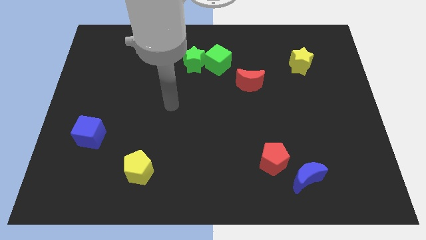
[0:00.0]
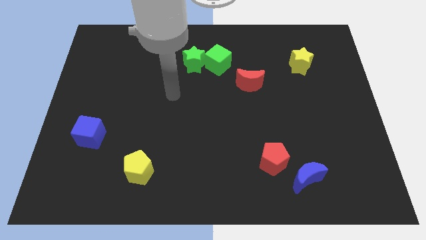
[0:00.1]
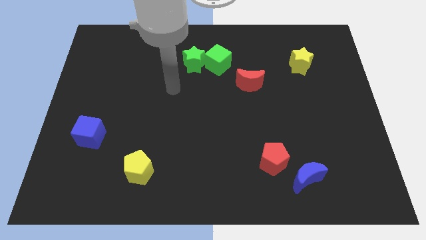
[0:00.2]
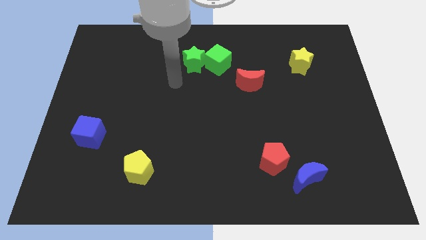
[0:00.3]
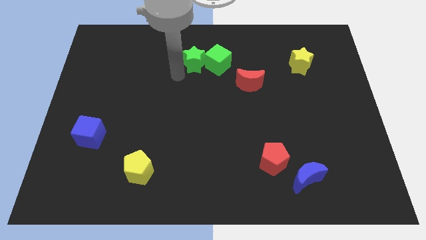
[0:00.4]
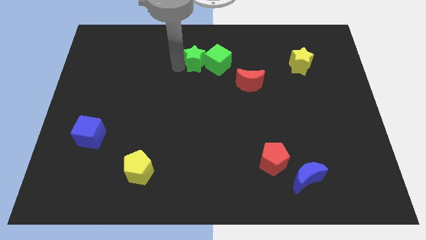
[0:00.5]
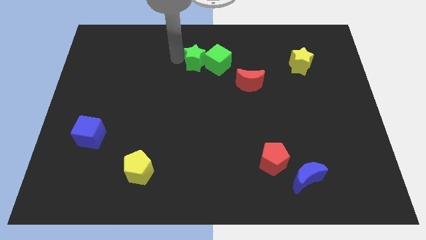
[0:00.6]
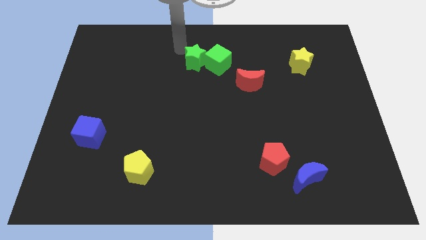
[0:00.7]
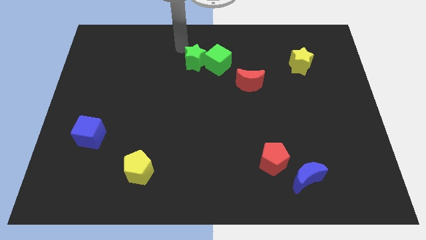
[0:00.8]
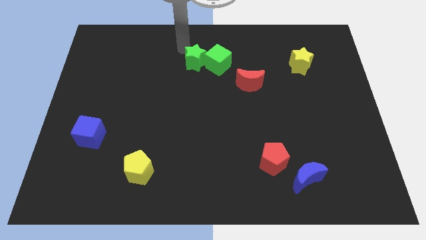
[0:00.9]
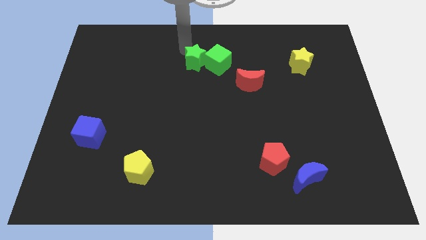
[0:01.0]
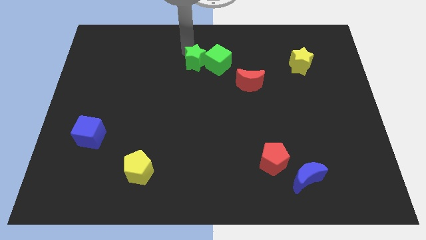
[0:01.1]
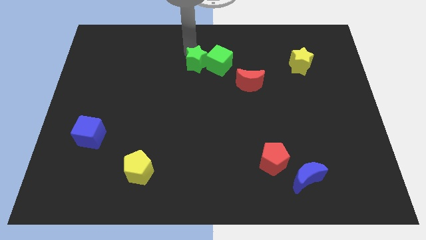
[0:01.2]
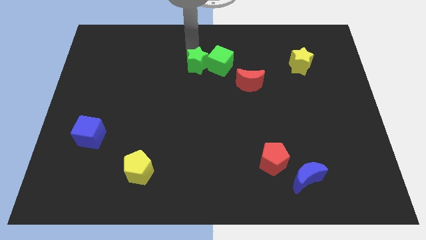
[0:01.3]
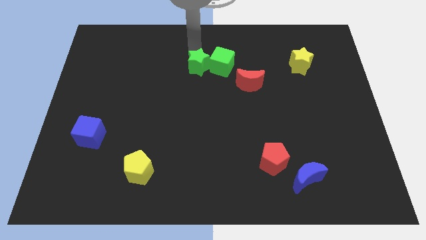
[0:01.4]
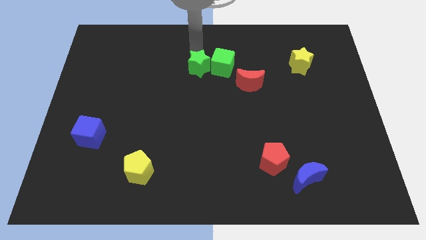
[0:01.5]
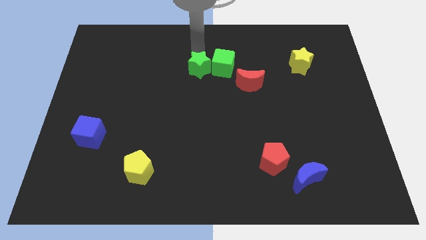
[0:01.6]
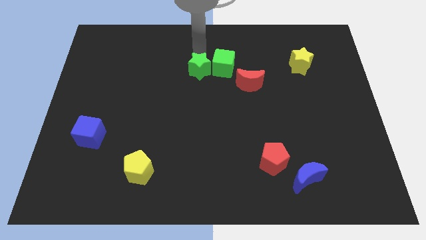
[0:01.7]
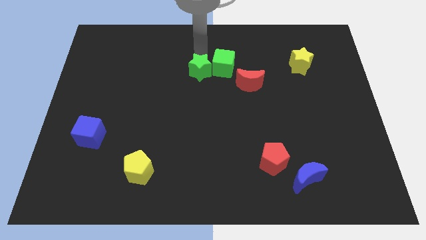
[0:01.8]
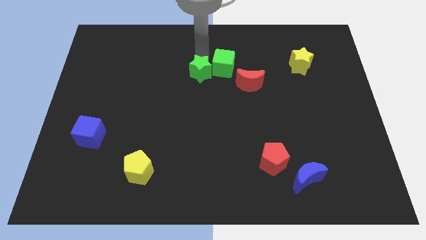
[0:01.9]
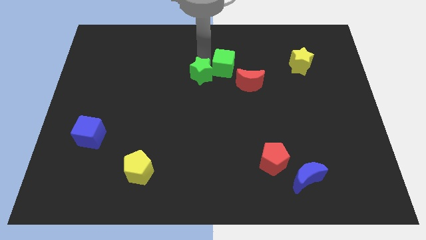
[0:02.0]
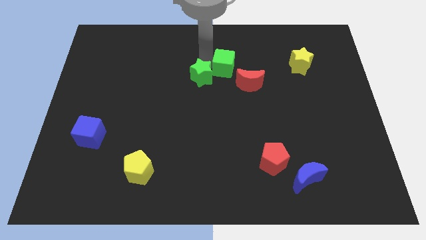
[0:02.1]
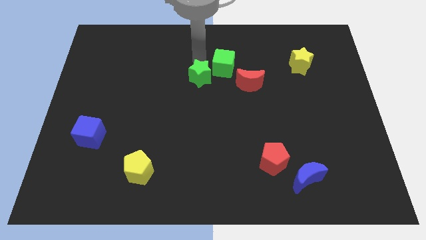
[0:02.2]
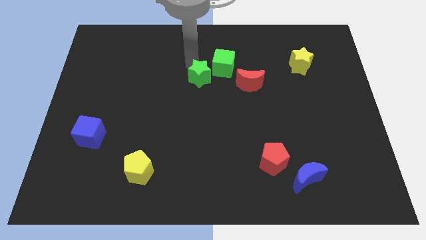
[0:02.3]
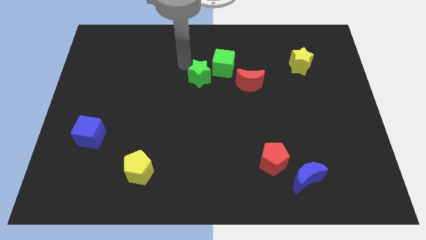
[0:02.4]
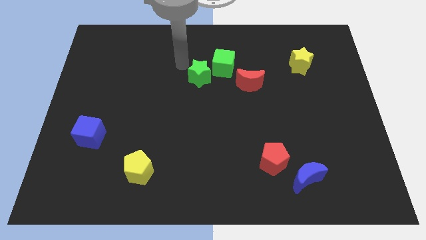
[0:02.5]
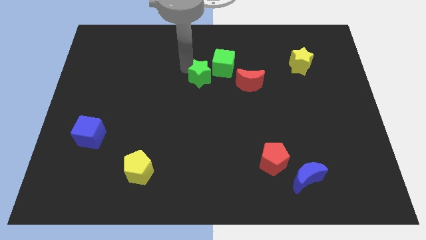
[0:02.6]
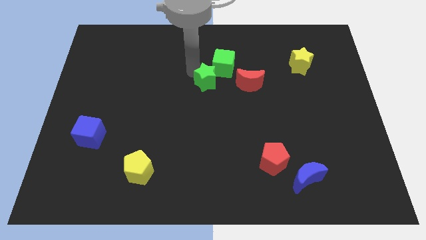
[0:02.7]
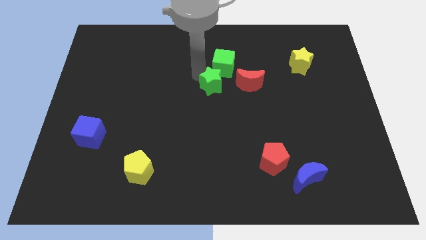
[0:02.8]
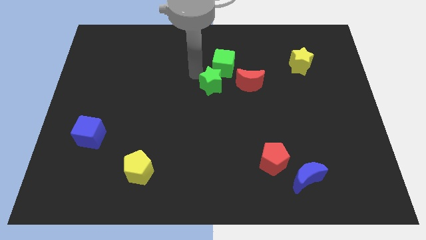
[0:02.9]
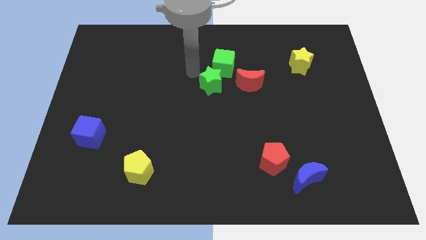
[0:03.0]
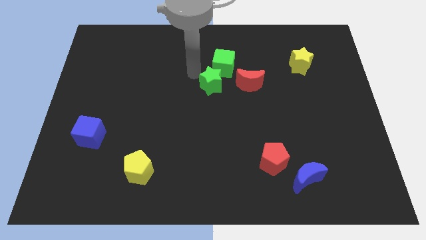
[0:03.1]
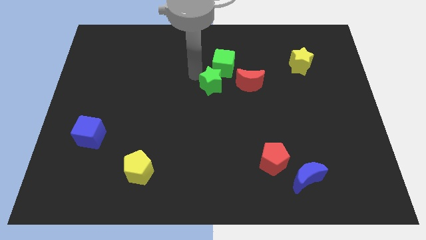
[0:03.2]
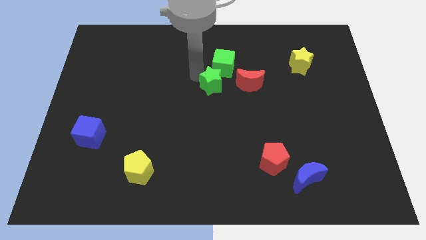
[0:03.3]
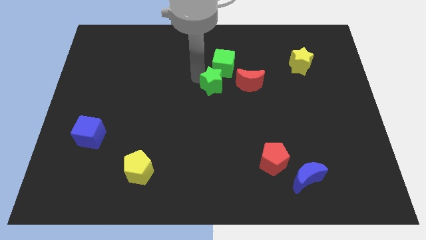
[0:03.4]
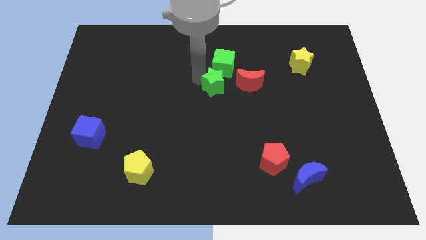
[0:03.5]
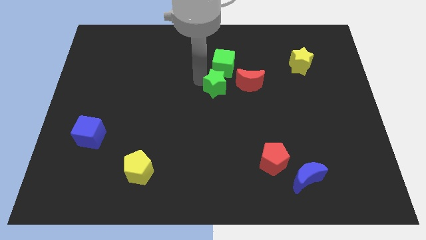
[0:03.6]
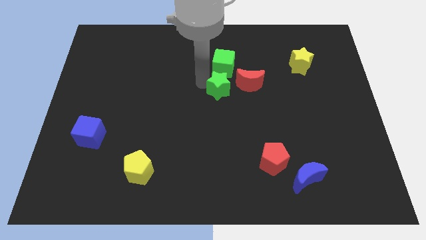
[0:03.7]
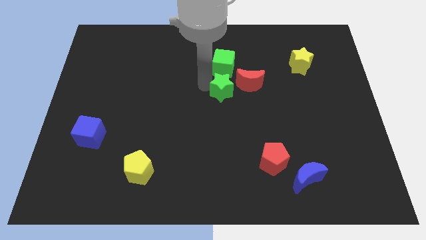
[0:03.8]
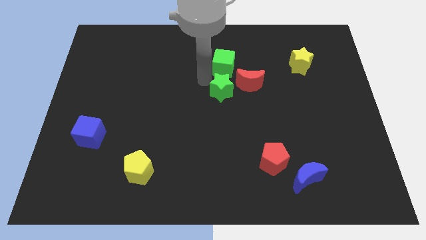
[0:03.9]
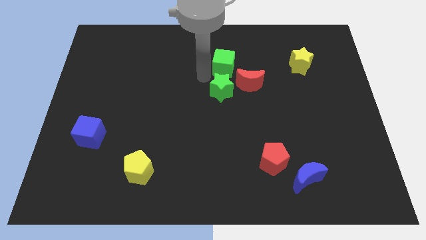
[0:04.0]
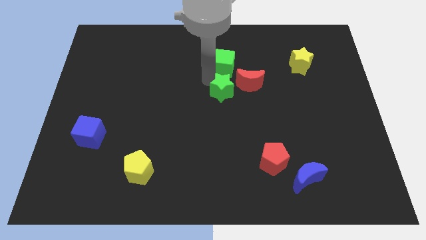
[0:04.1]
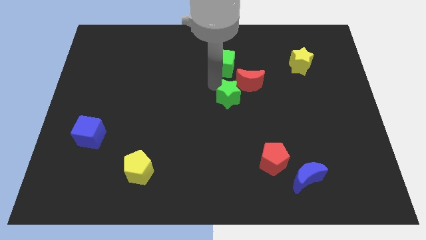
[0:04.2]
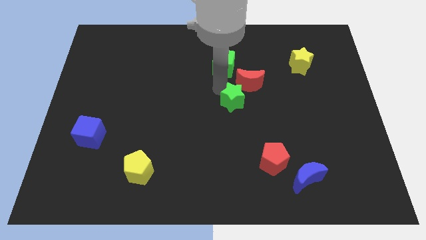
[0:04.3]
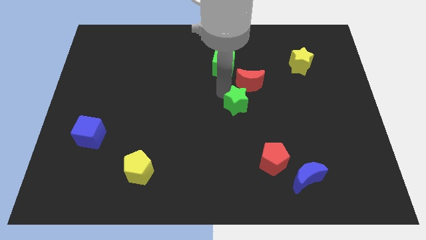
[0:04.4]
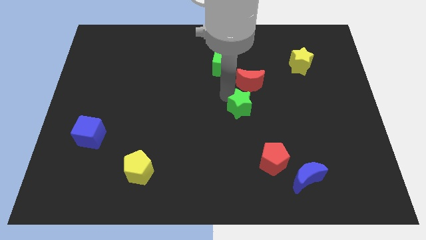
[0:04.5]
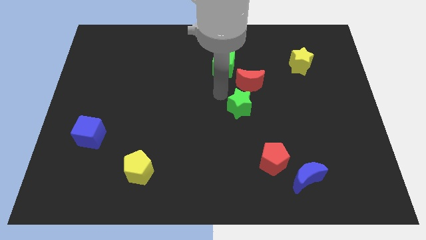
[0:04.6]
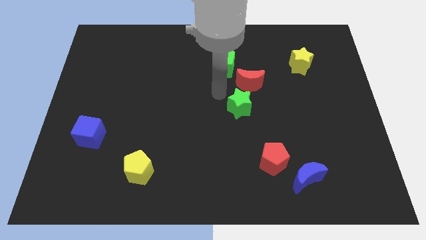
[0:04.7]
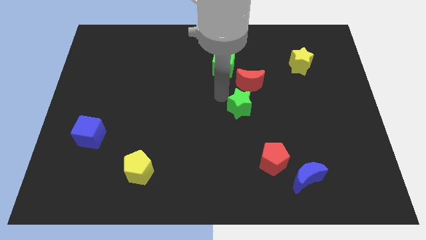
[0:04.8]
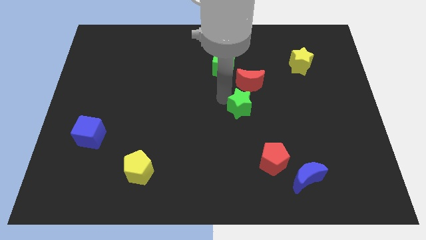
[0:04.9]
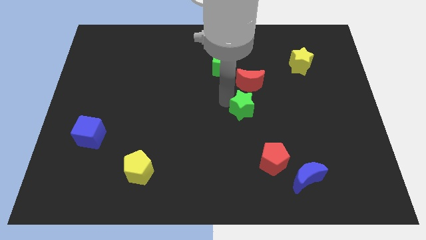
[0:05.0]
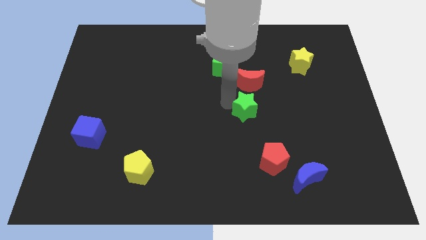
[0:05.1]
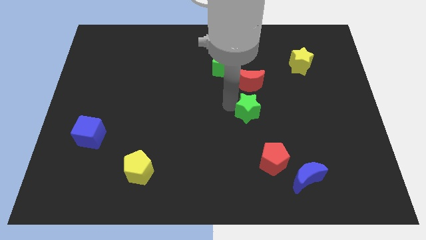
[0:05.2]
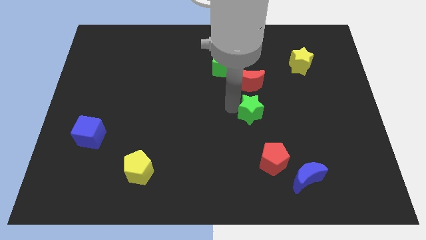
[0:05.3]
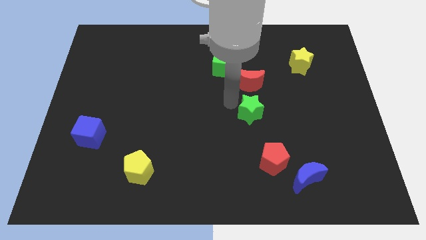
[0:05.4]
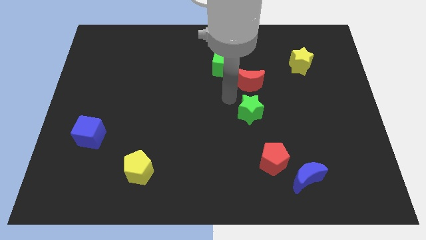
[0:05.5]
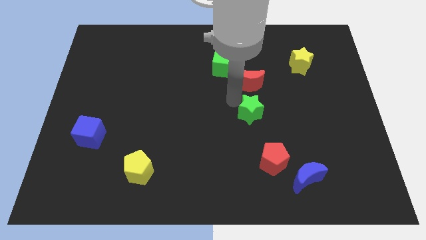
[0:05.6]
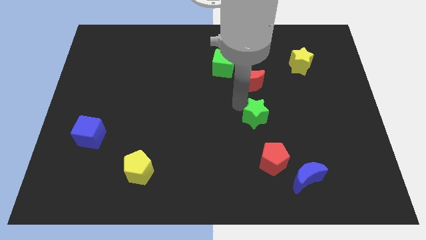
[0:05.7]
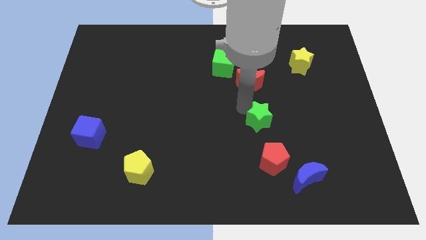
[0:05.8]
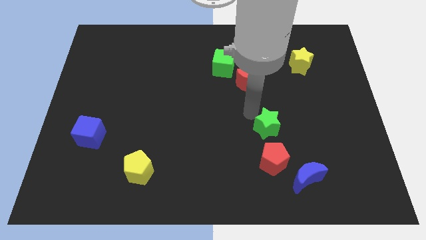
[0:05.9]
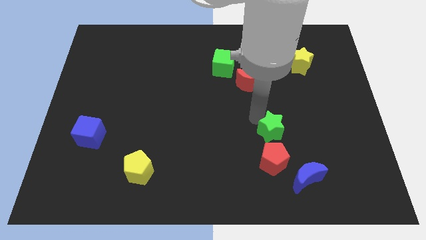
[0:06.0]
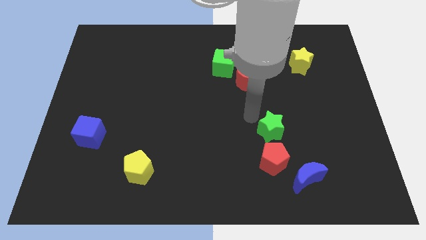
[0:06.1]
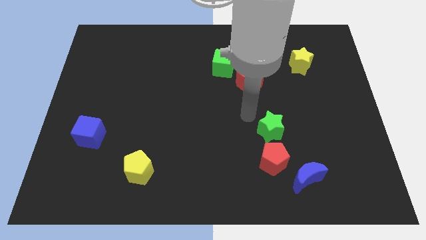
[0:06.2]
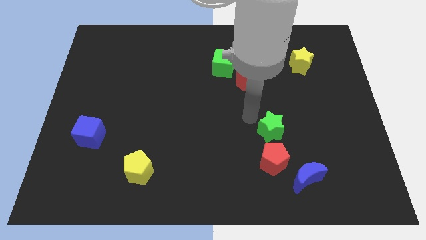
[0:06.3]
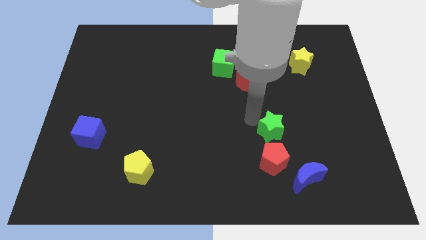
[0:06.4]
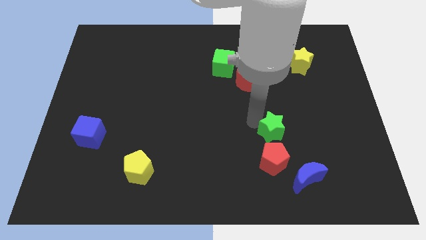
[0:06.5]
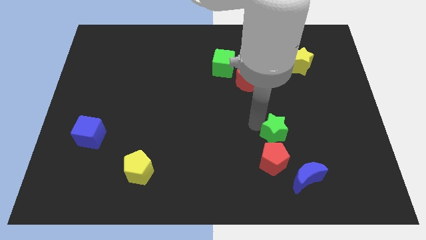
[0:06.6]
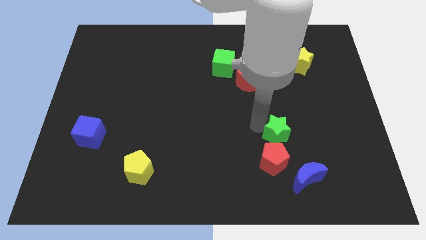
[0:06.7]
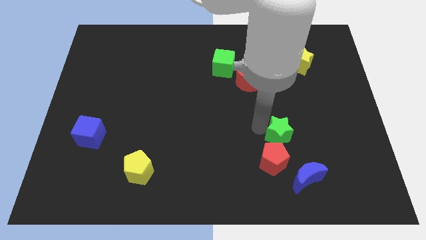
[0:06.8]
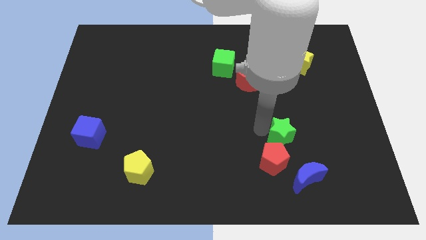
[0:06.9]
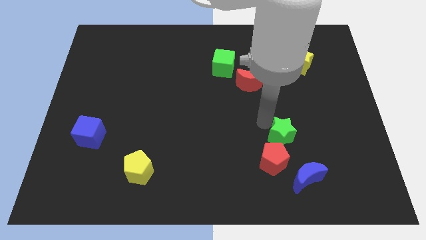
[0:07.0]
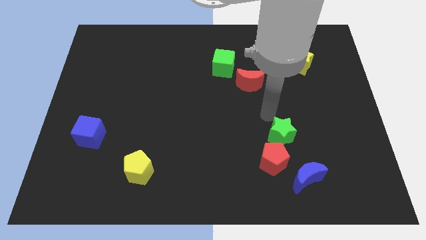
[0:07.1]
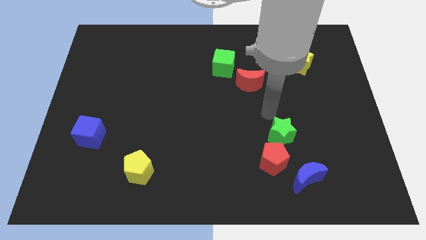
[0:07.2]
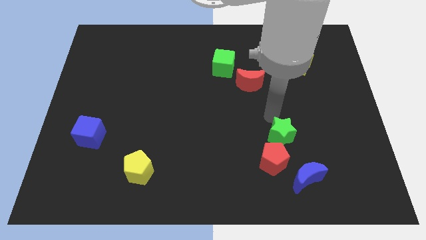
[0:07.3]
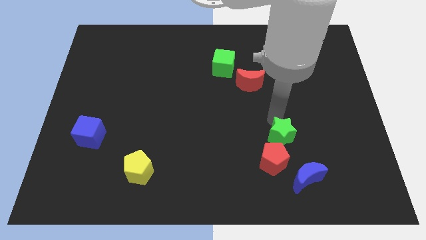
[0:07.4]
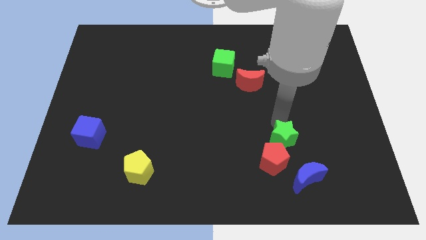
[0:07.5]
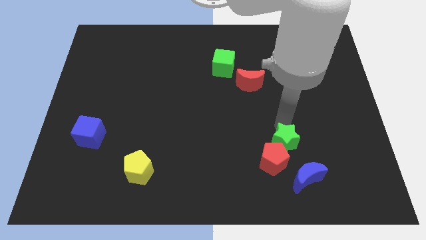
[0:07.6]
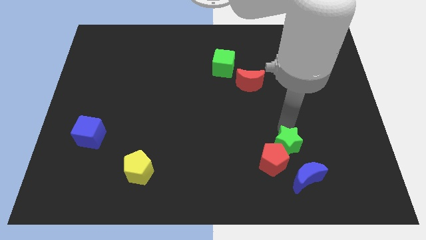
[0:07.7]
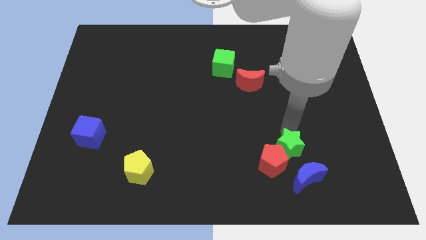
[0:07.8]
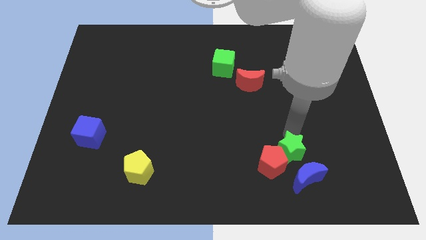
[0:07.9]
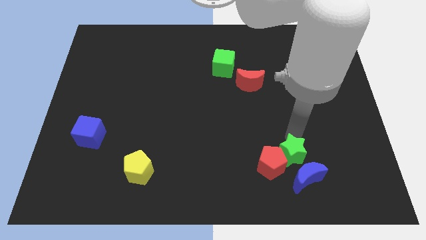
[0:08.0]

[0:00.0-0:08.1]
push the green star to the blue moon
